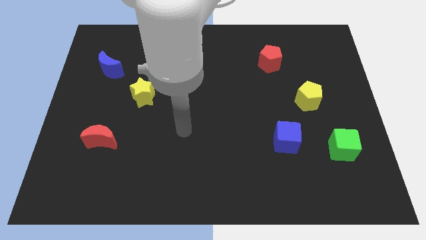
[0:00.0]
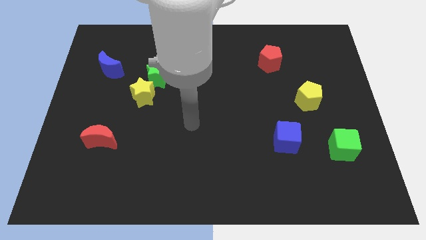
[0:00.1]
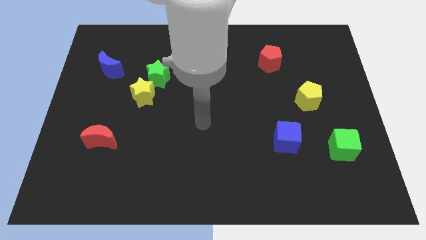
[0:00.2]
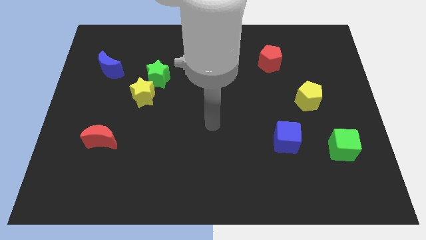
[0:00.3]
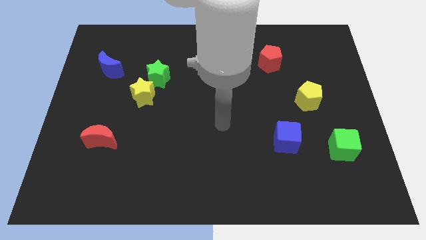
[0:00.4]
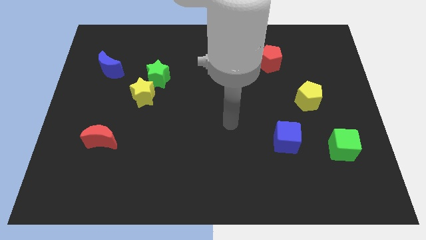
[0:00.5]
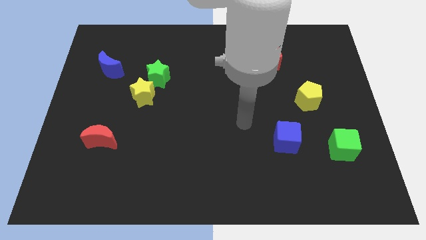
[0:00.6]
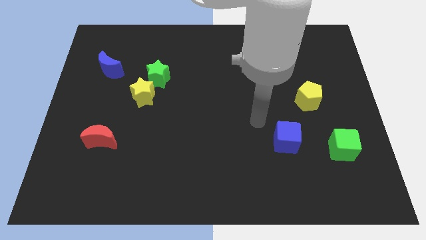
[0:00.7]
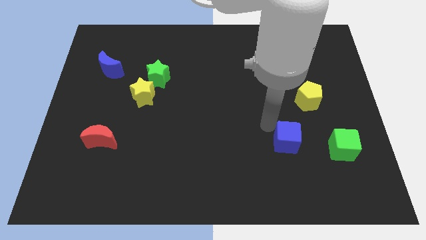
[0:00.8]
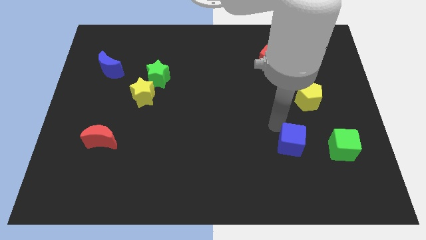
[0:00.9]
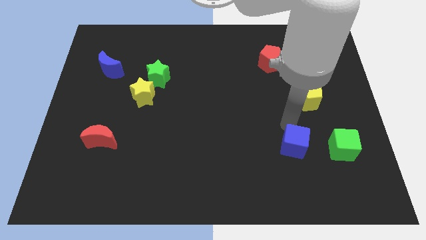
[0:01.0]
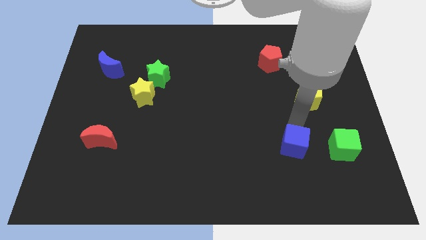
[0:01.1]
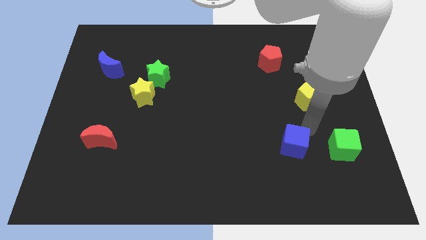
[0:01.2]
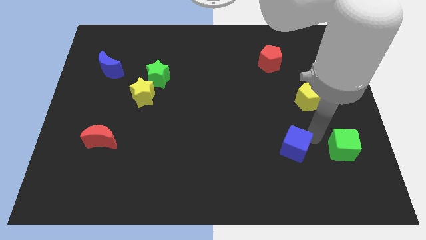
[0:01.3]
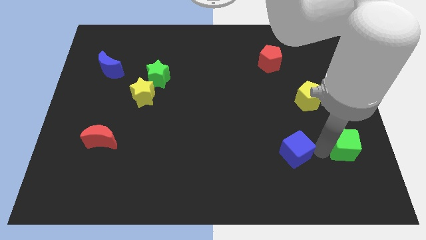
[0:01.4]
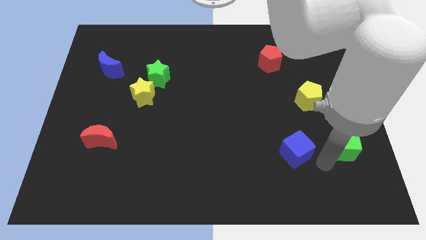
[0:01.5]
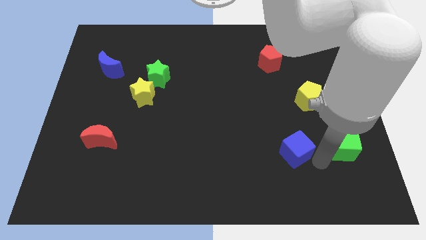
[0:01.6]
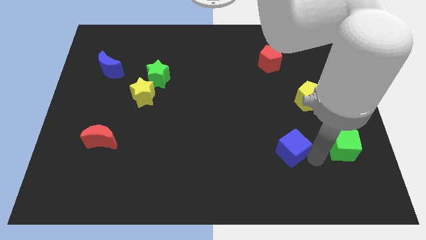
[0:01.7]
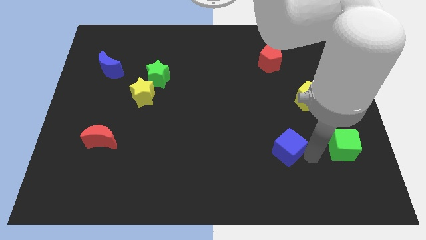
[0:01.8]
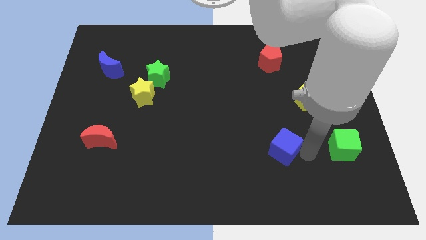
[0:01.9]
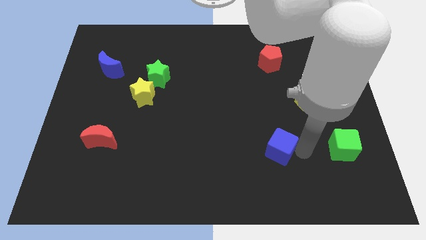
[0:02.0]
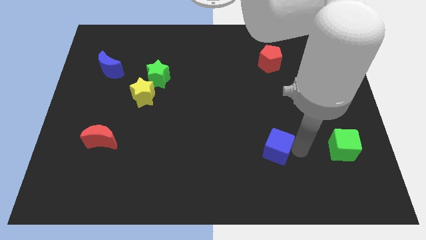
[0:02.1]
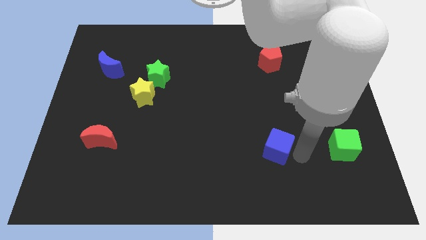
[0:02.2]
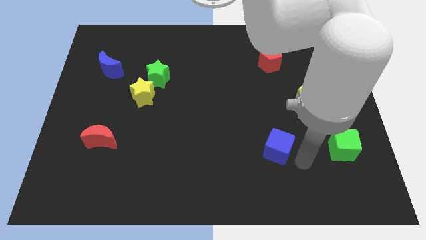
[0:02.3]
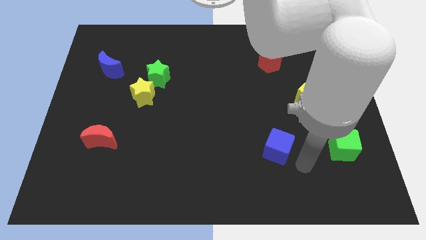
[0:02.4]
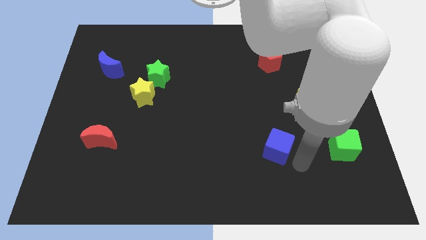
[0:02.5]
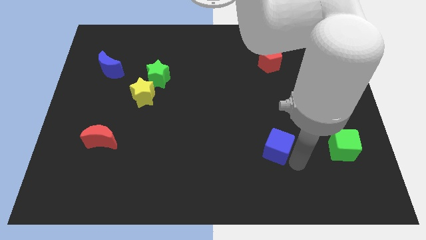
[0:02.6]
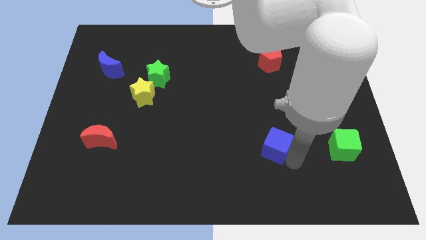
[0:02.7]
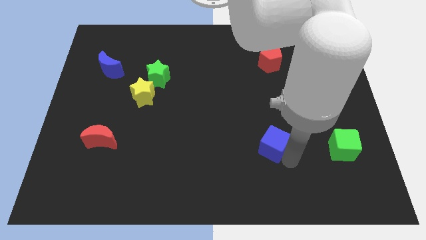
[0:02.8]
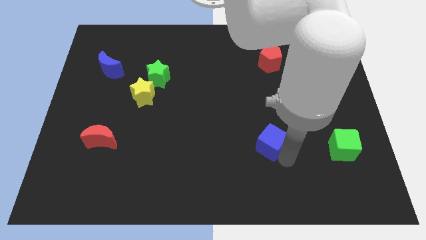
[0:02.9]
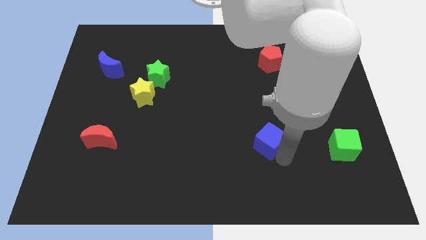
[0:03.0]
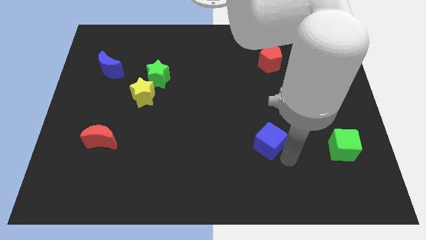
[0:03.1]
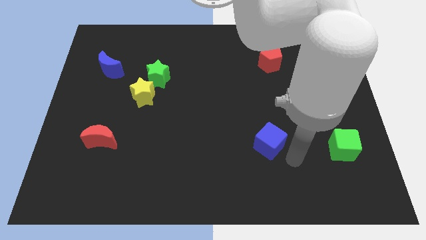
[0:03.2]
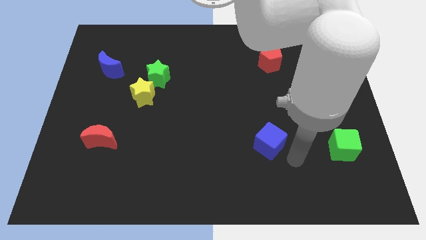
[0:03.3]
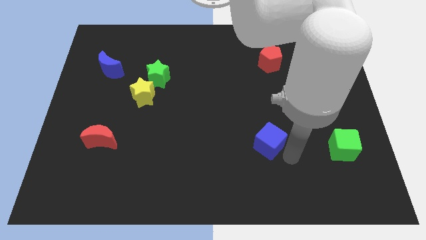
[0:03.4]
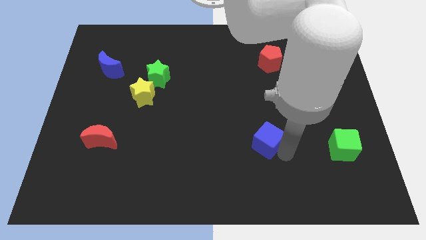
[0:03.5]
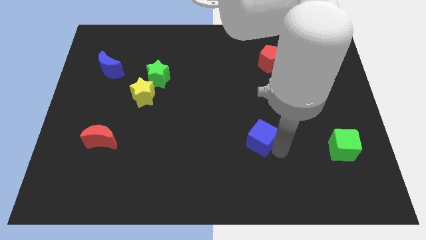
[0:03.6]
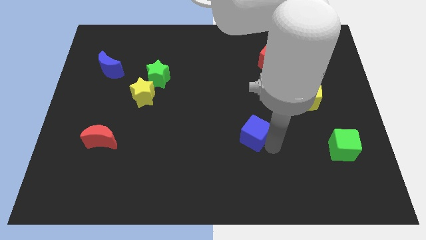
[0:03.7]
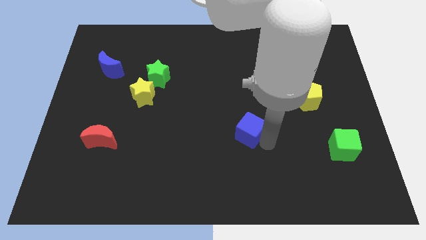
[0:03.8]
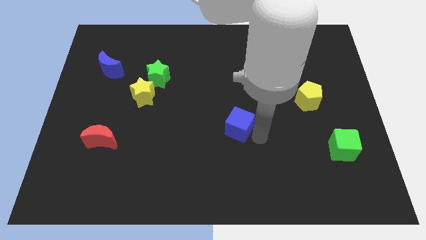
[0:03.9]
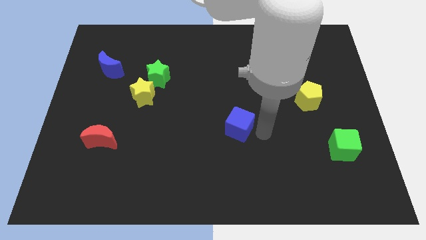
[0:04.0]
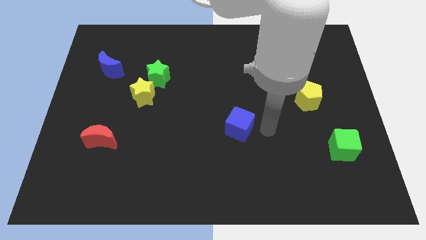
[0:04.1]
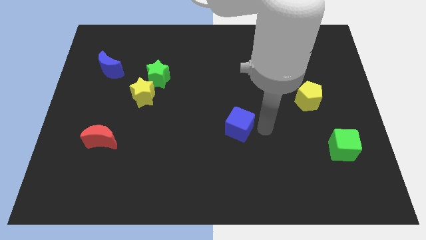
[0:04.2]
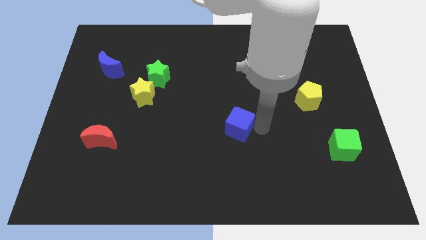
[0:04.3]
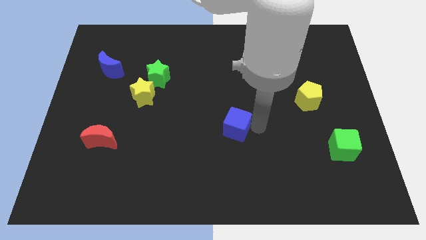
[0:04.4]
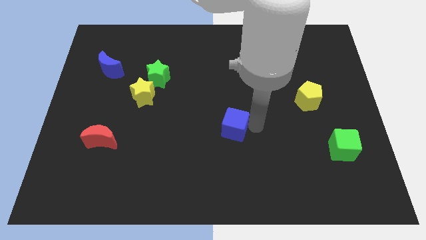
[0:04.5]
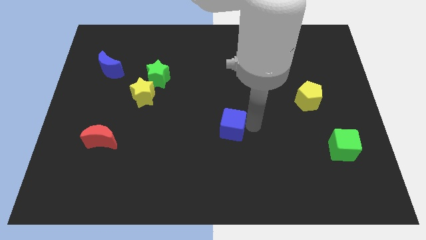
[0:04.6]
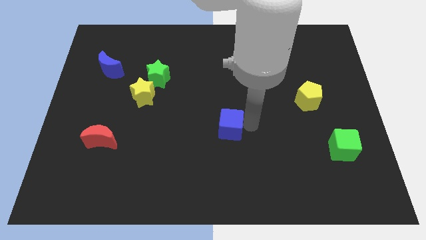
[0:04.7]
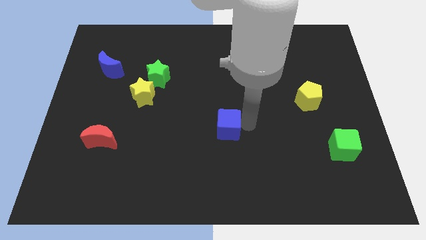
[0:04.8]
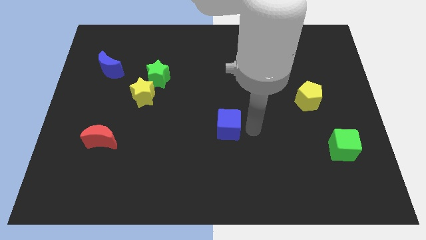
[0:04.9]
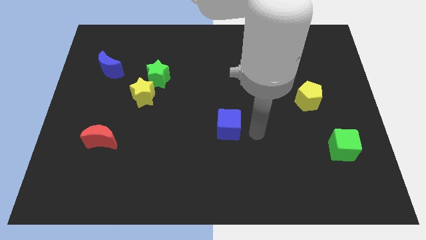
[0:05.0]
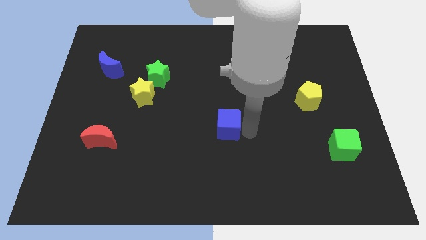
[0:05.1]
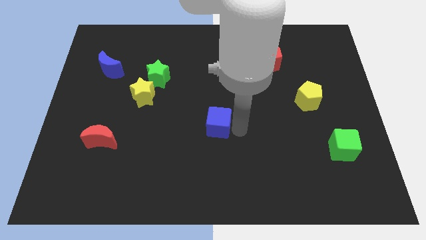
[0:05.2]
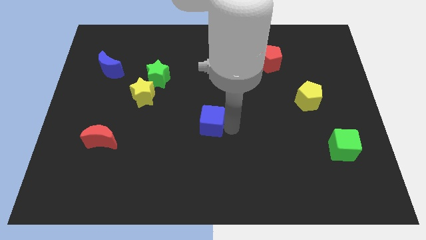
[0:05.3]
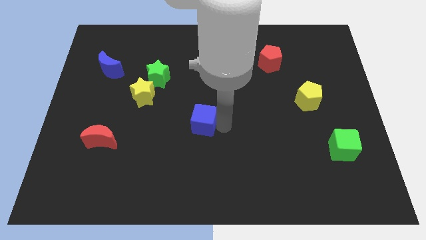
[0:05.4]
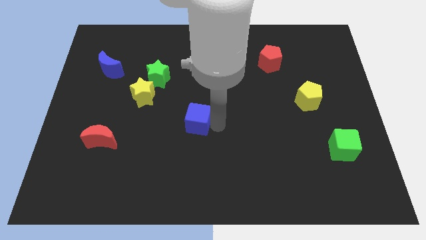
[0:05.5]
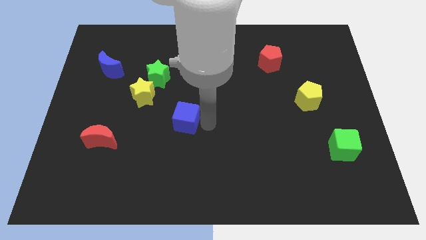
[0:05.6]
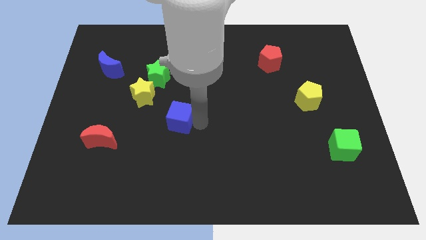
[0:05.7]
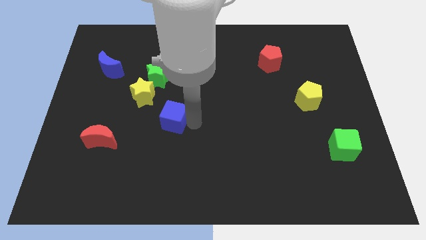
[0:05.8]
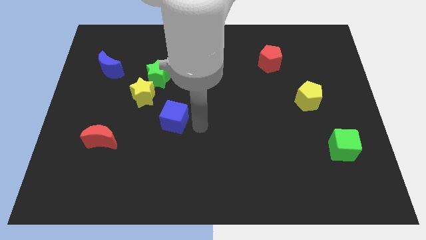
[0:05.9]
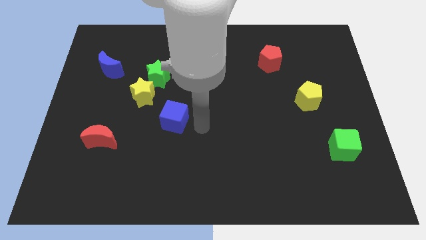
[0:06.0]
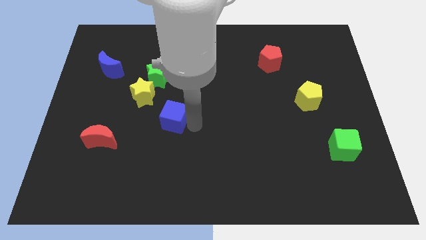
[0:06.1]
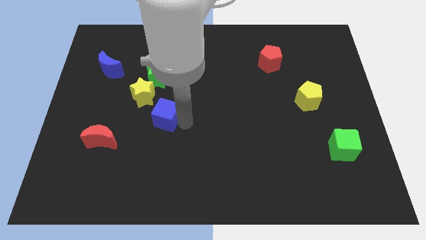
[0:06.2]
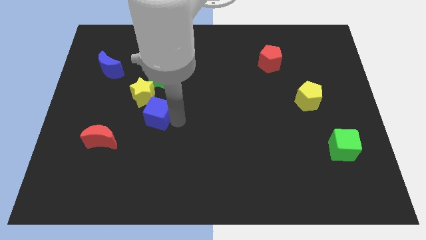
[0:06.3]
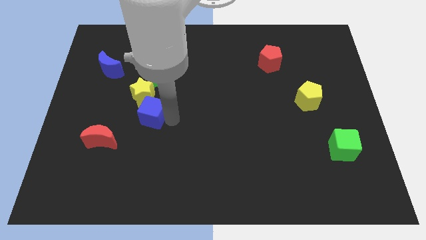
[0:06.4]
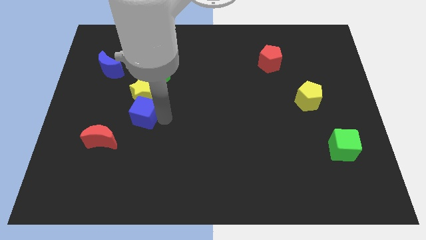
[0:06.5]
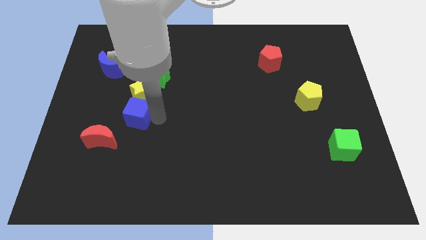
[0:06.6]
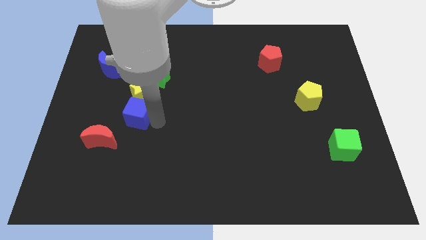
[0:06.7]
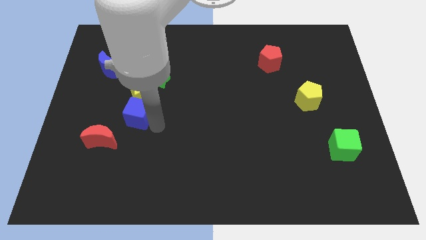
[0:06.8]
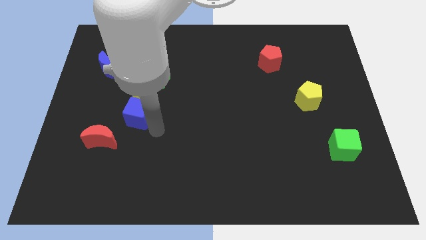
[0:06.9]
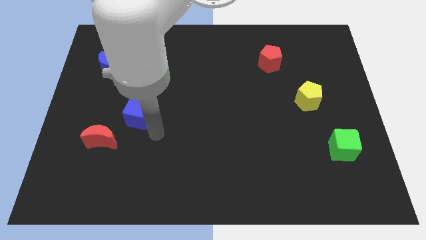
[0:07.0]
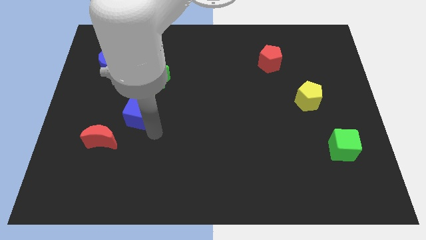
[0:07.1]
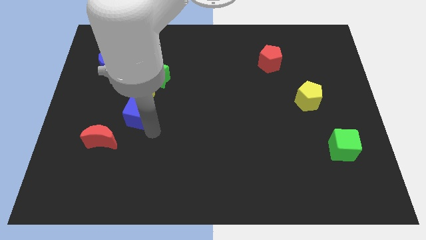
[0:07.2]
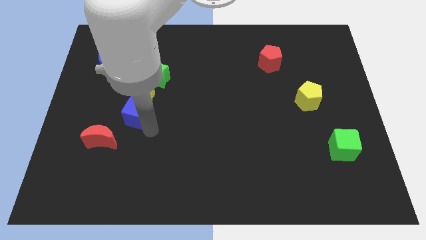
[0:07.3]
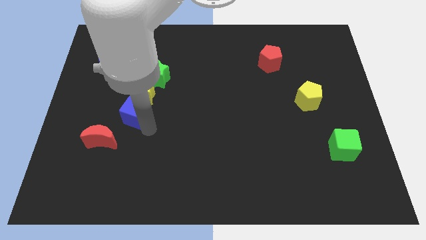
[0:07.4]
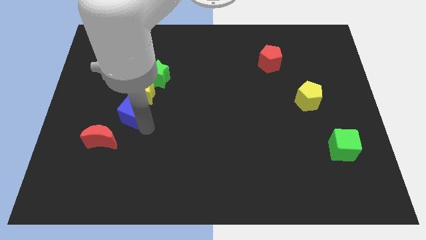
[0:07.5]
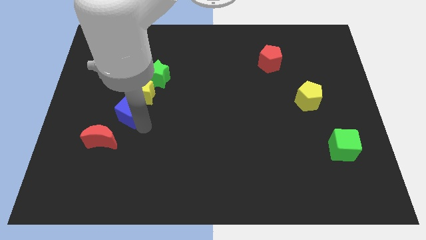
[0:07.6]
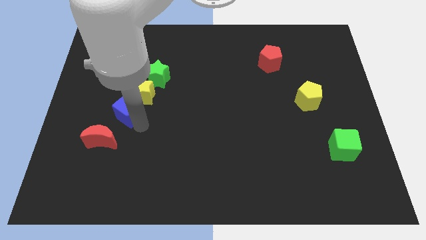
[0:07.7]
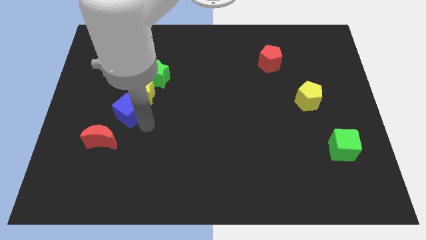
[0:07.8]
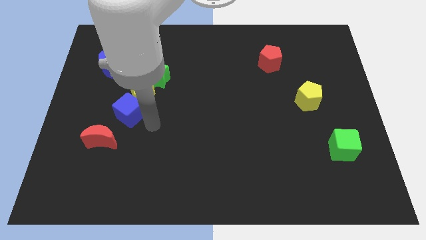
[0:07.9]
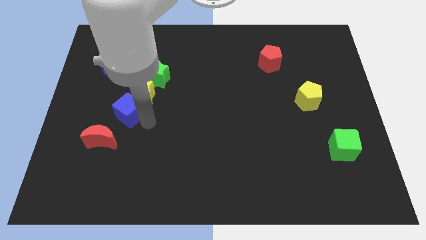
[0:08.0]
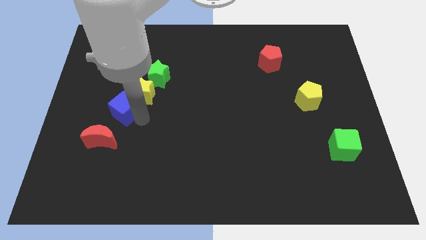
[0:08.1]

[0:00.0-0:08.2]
slide the blue cube above the red moon
